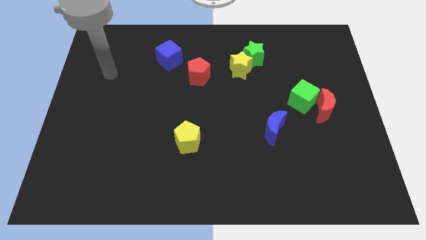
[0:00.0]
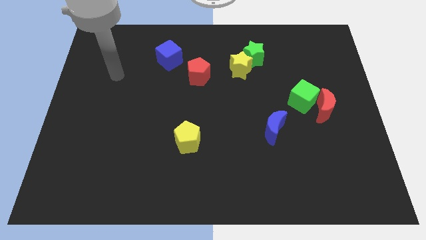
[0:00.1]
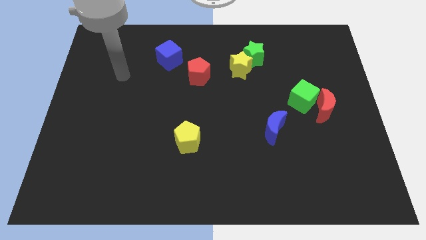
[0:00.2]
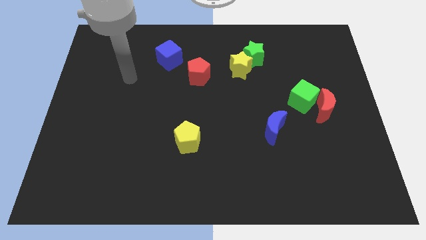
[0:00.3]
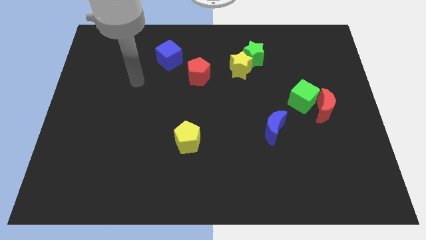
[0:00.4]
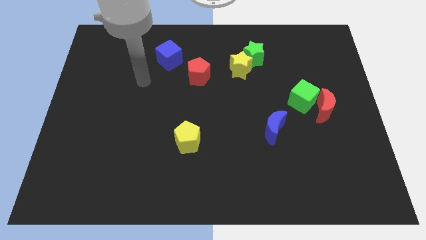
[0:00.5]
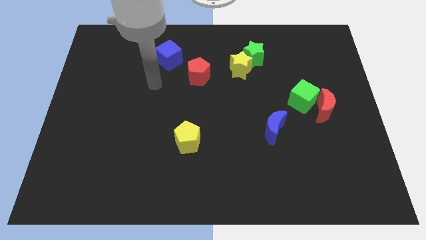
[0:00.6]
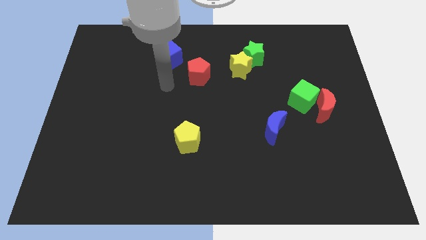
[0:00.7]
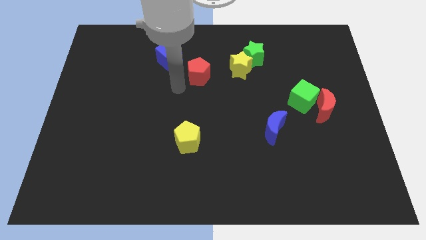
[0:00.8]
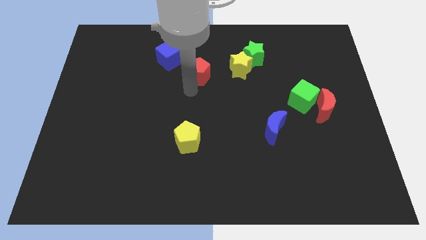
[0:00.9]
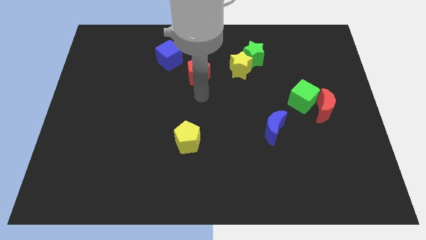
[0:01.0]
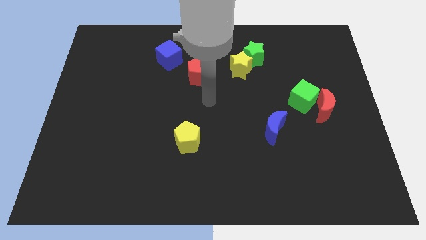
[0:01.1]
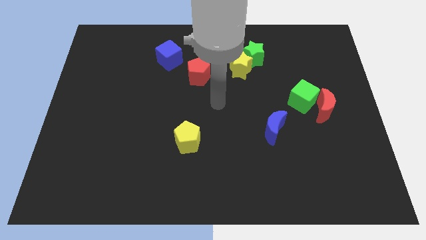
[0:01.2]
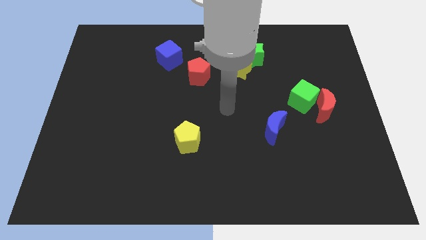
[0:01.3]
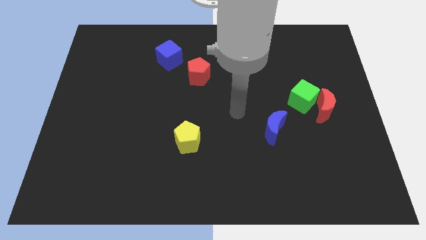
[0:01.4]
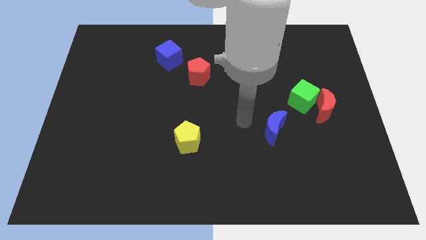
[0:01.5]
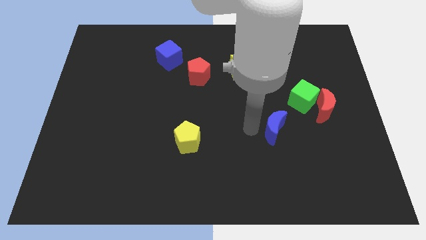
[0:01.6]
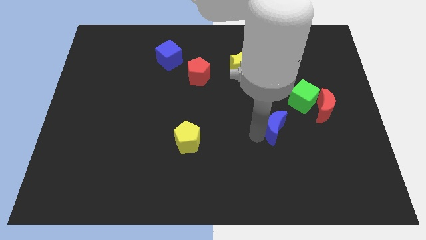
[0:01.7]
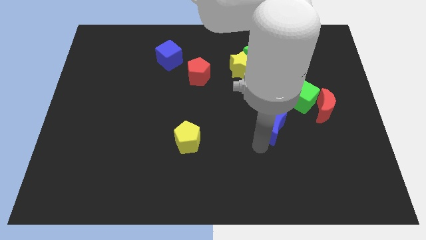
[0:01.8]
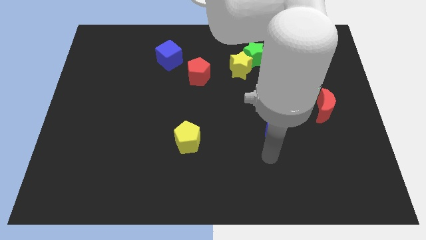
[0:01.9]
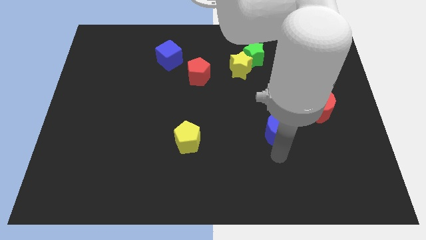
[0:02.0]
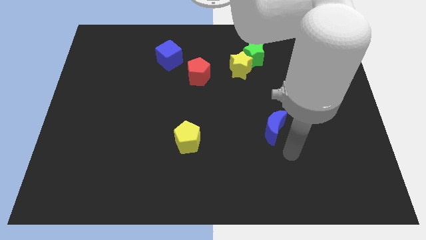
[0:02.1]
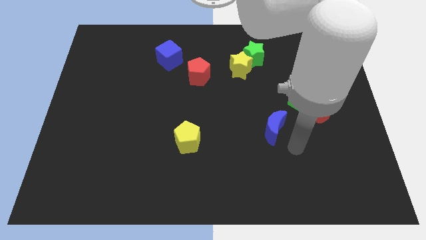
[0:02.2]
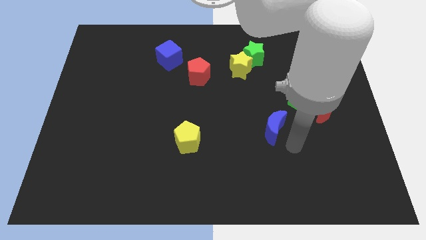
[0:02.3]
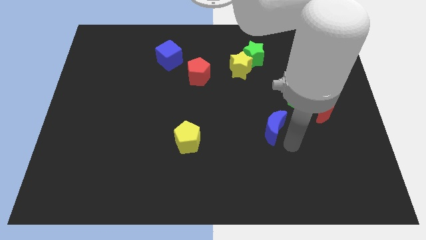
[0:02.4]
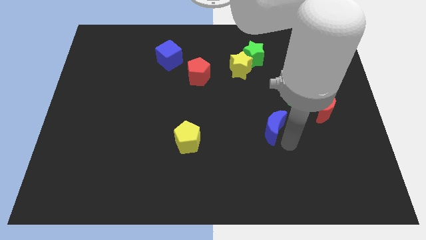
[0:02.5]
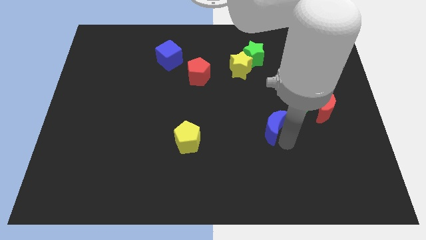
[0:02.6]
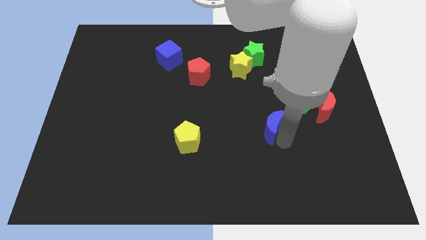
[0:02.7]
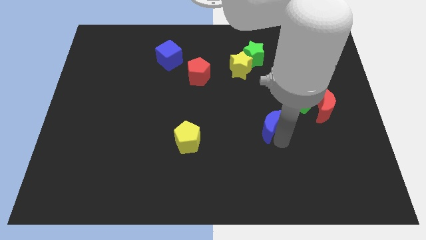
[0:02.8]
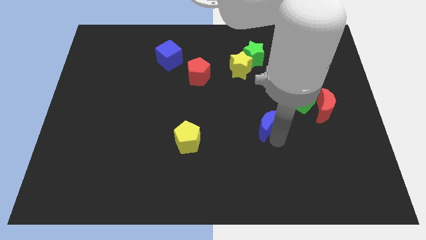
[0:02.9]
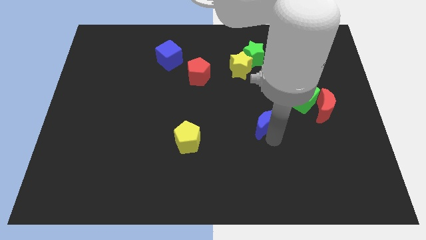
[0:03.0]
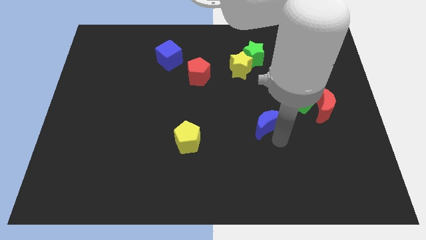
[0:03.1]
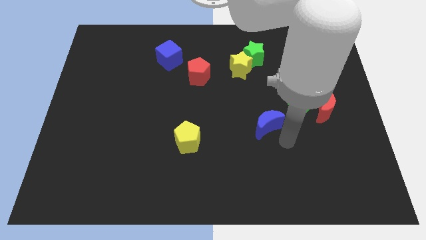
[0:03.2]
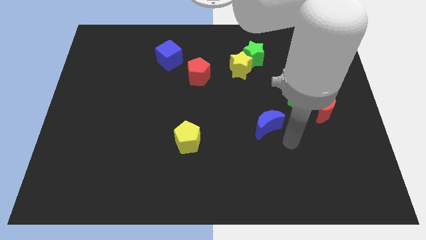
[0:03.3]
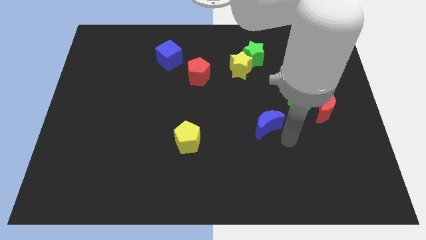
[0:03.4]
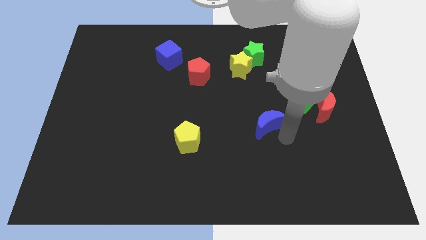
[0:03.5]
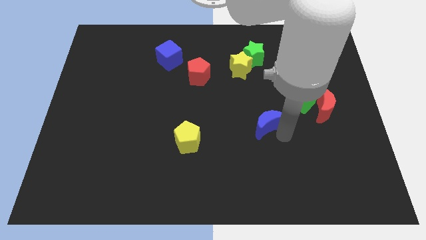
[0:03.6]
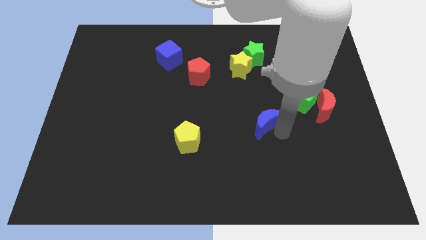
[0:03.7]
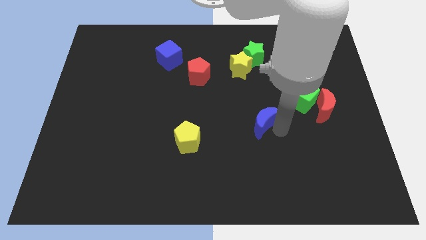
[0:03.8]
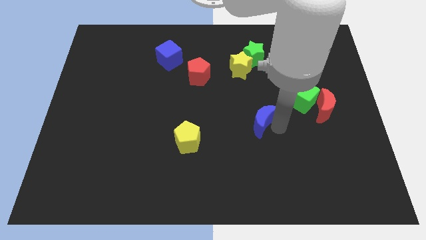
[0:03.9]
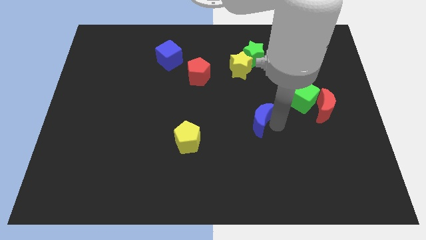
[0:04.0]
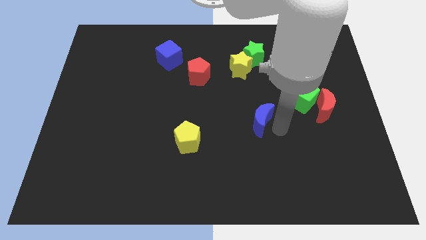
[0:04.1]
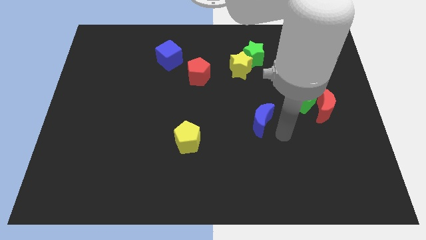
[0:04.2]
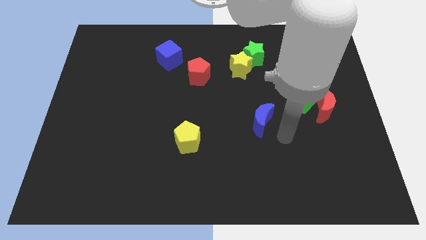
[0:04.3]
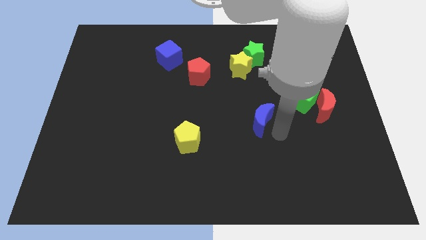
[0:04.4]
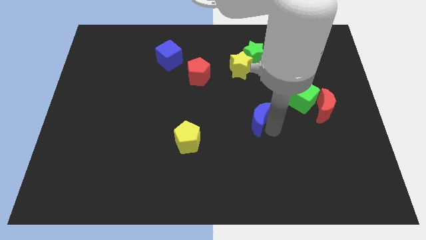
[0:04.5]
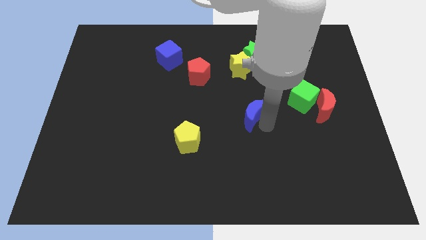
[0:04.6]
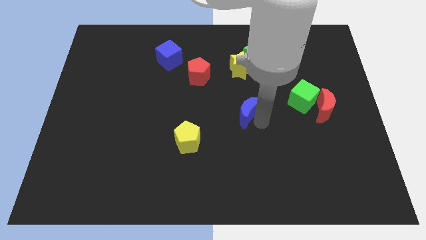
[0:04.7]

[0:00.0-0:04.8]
slightly move the blue moon up and to the left

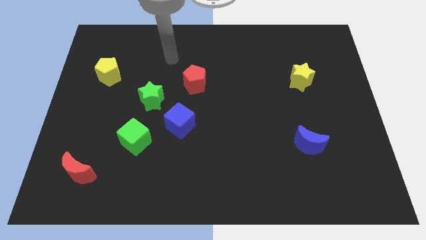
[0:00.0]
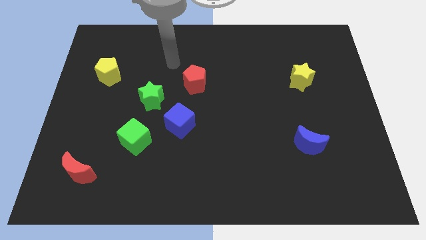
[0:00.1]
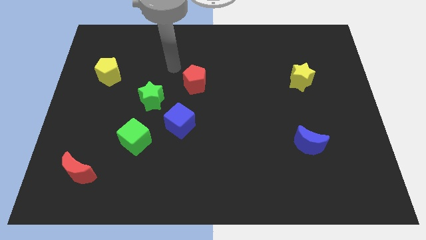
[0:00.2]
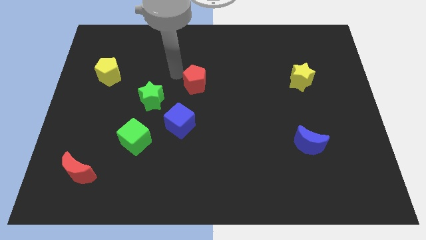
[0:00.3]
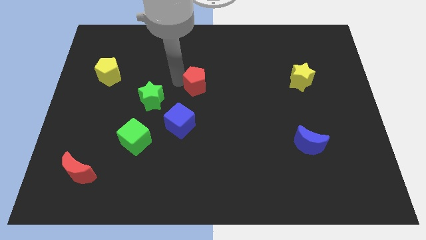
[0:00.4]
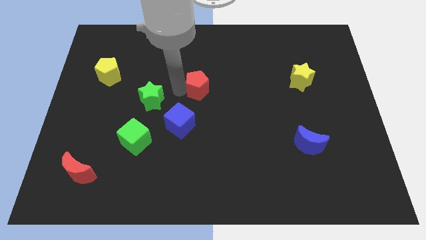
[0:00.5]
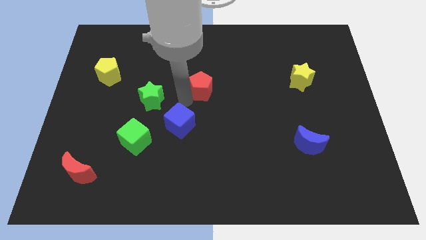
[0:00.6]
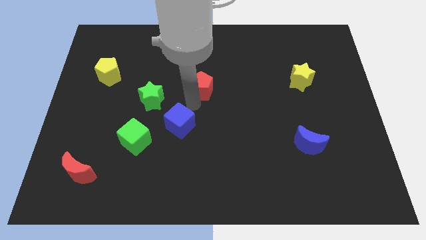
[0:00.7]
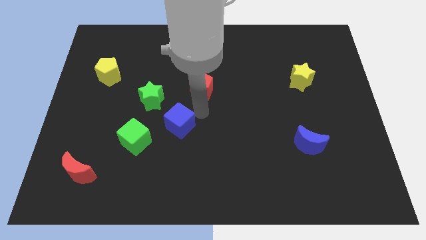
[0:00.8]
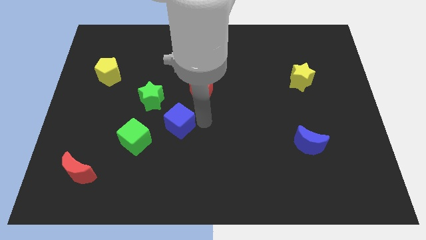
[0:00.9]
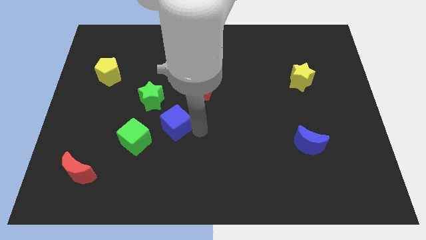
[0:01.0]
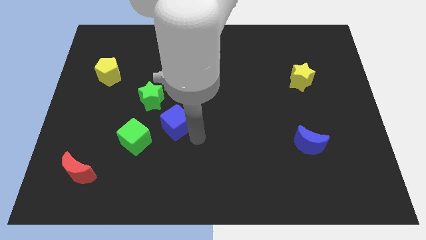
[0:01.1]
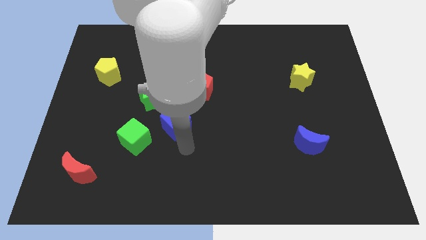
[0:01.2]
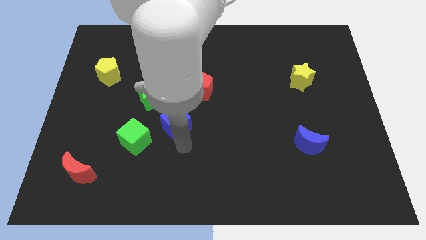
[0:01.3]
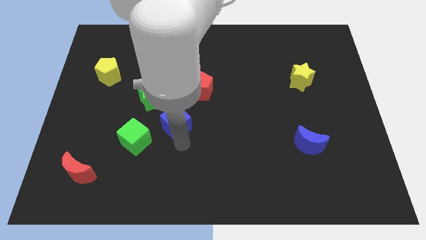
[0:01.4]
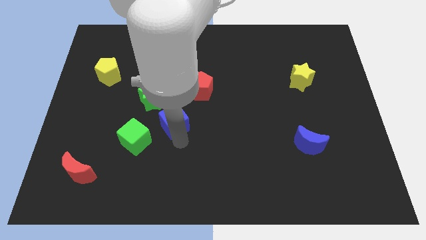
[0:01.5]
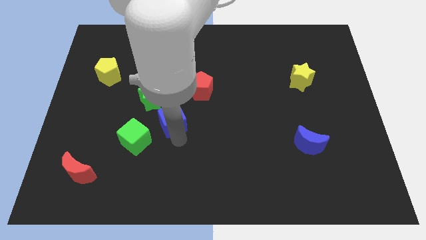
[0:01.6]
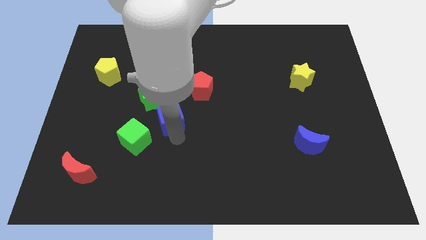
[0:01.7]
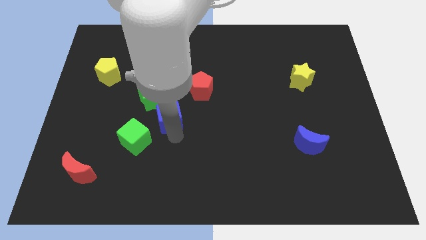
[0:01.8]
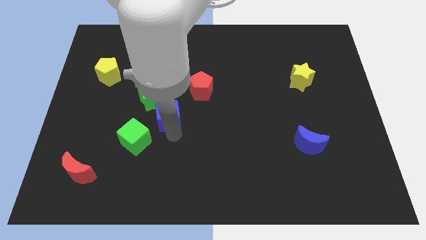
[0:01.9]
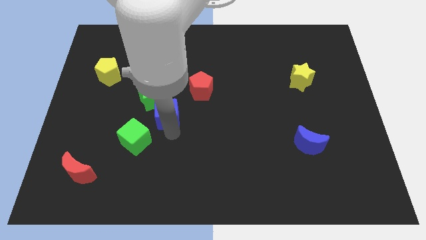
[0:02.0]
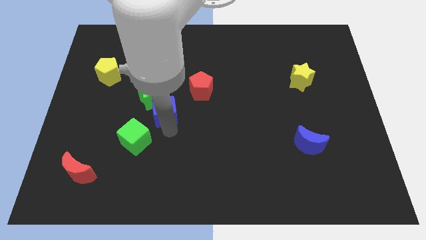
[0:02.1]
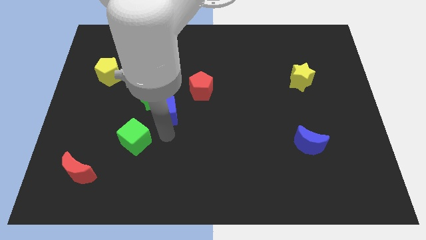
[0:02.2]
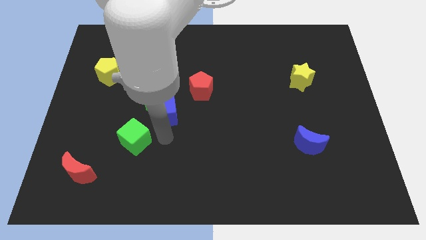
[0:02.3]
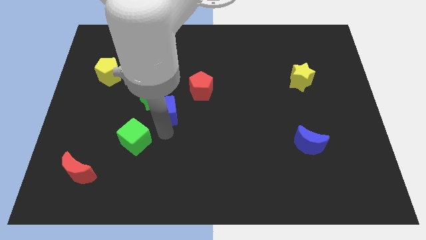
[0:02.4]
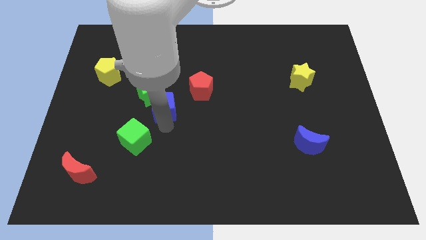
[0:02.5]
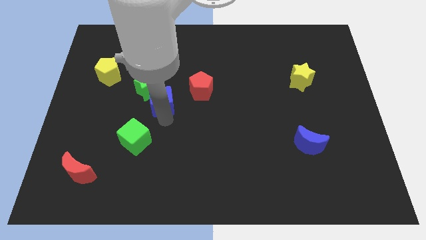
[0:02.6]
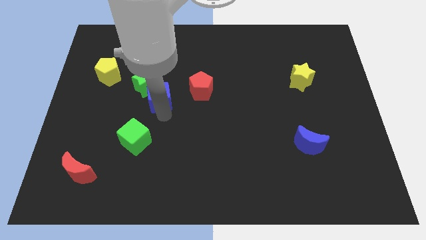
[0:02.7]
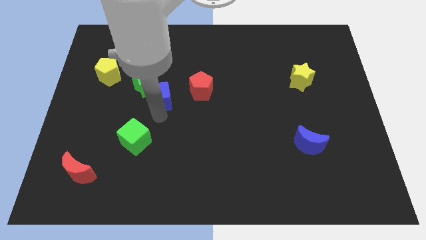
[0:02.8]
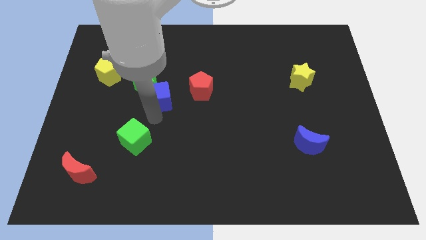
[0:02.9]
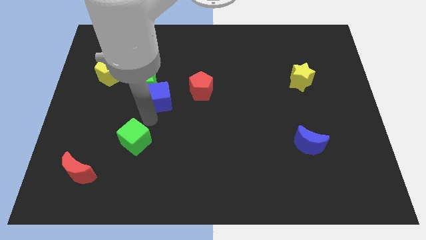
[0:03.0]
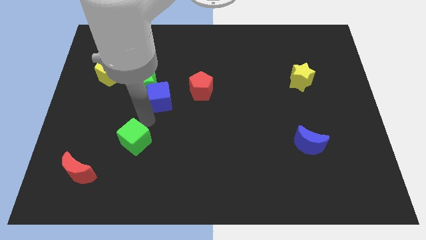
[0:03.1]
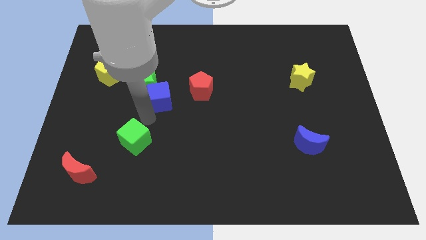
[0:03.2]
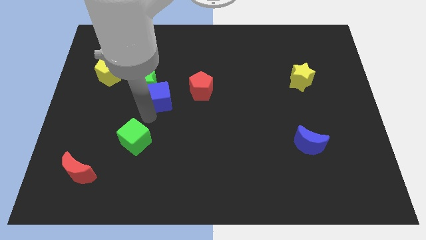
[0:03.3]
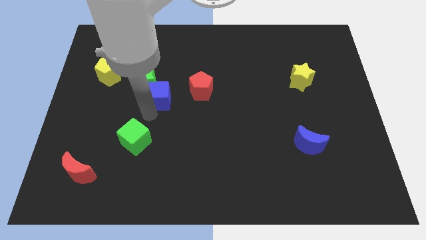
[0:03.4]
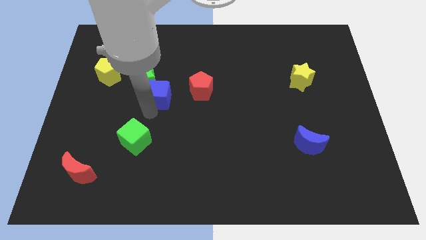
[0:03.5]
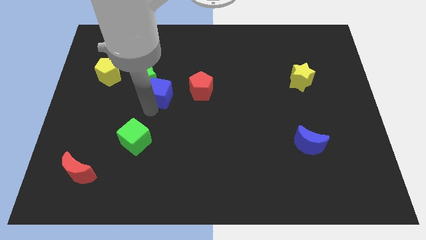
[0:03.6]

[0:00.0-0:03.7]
slightly push the blue cube up
